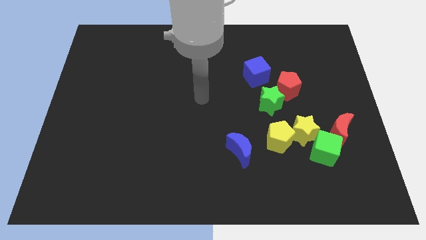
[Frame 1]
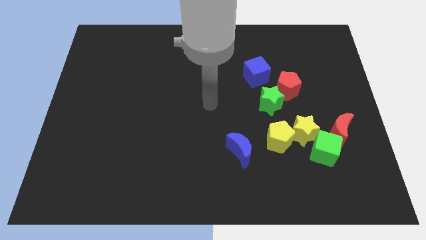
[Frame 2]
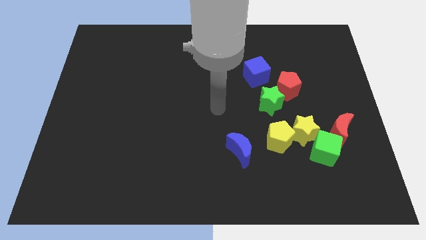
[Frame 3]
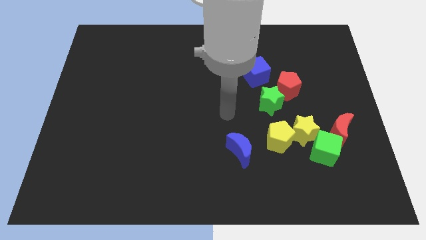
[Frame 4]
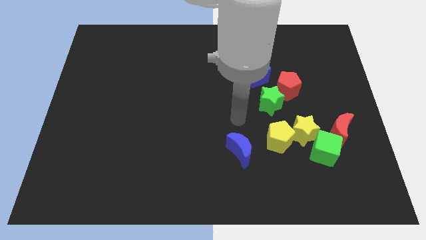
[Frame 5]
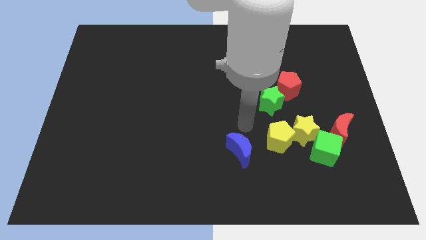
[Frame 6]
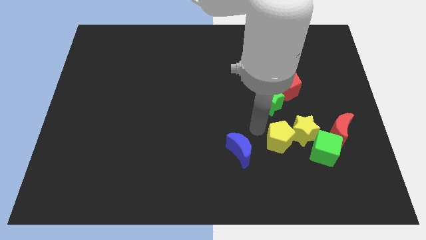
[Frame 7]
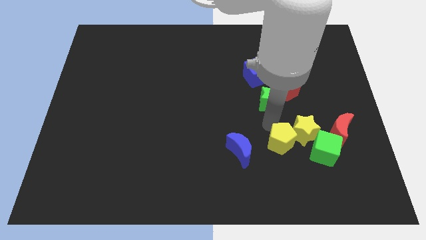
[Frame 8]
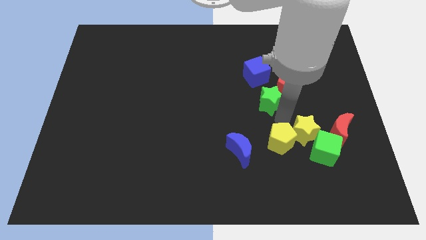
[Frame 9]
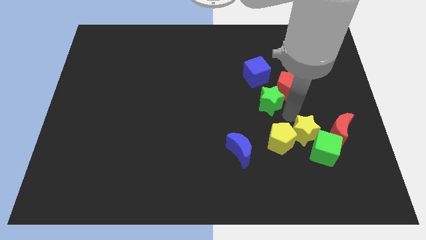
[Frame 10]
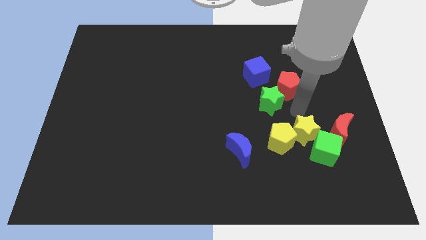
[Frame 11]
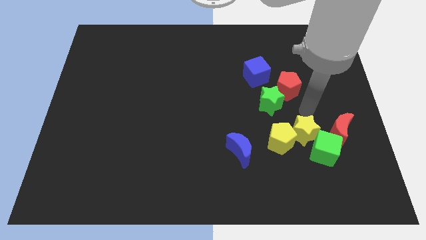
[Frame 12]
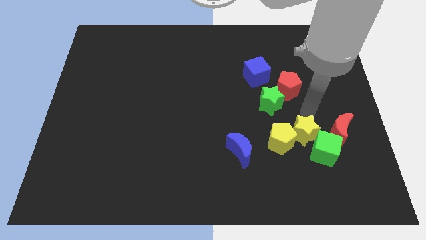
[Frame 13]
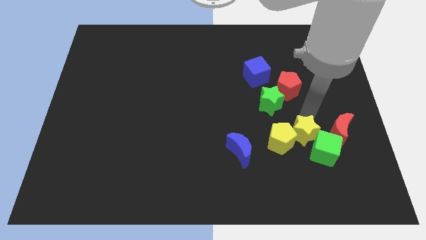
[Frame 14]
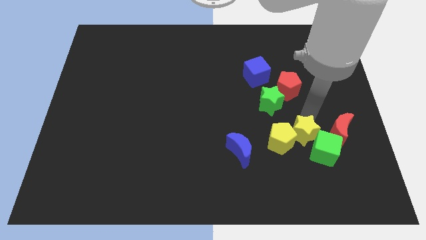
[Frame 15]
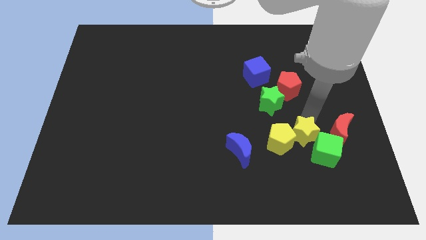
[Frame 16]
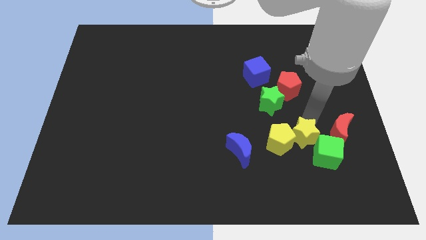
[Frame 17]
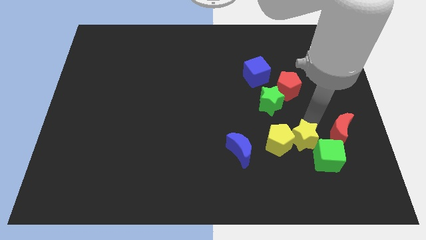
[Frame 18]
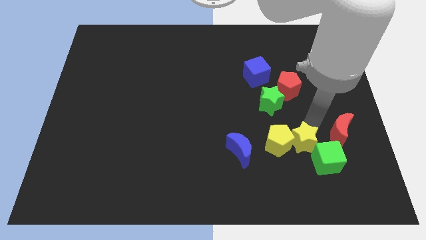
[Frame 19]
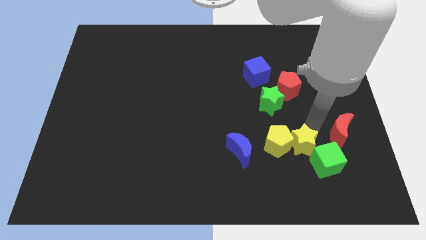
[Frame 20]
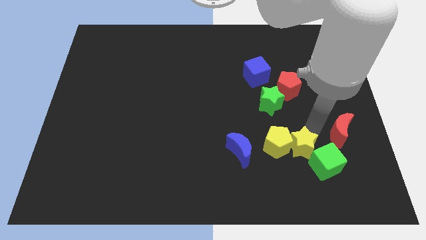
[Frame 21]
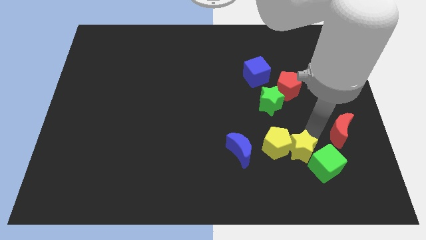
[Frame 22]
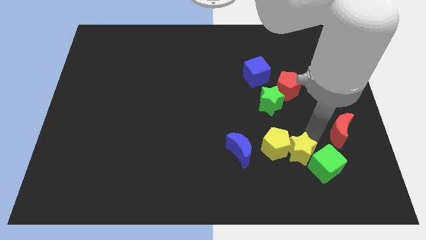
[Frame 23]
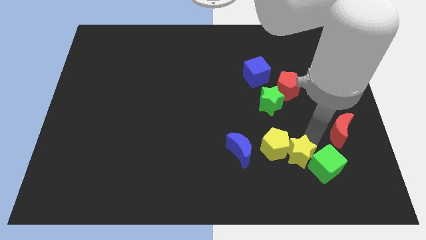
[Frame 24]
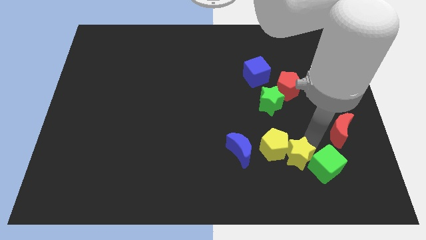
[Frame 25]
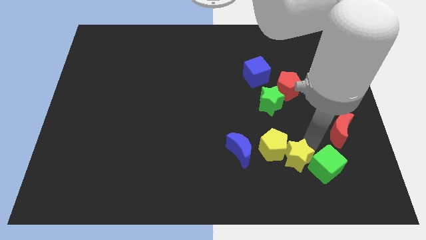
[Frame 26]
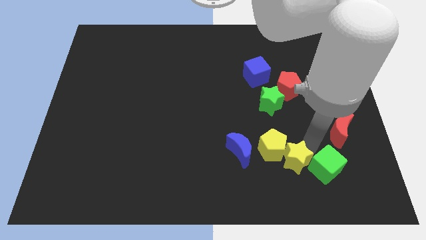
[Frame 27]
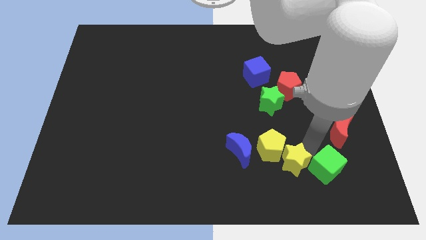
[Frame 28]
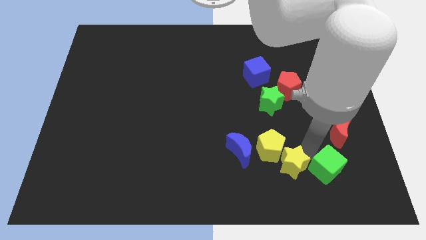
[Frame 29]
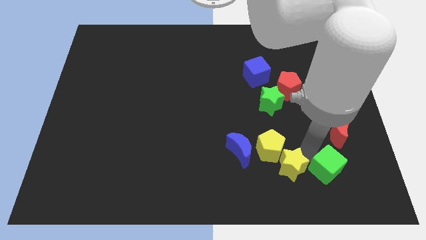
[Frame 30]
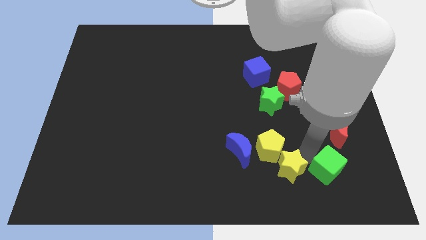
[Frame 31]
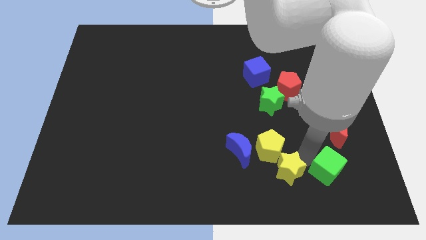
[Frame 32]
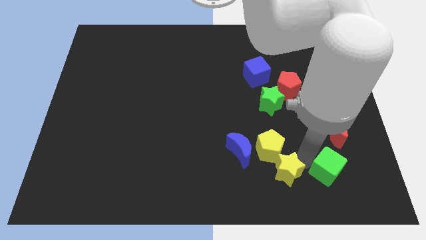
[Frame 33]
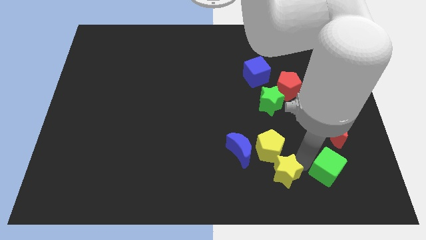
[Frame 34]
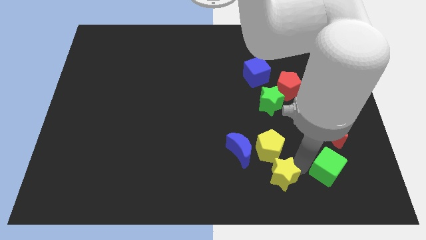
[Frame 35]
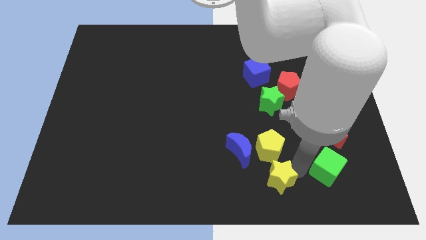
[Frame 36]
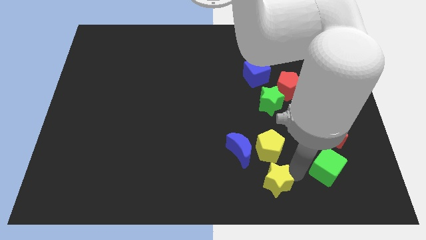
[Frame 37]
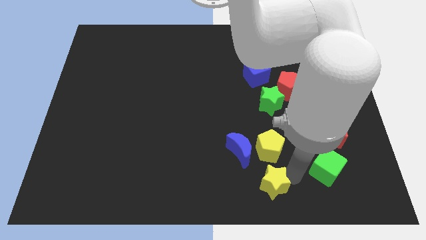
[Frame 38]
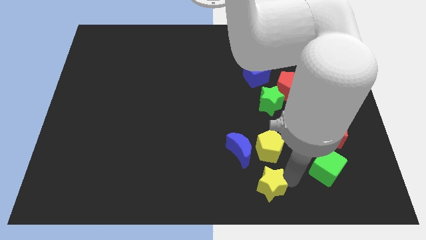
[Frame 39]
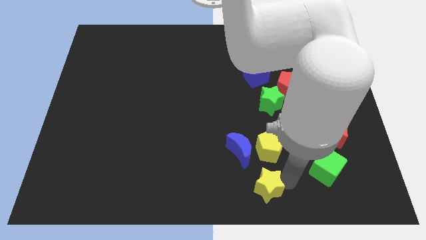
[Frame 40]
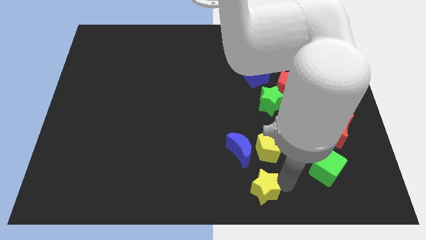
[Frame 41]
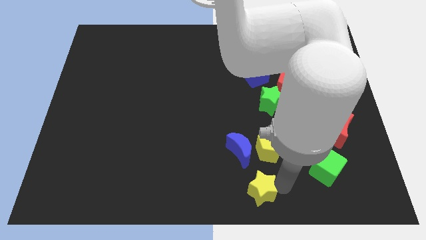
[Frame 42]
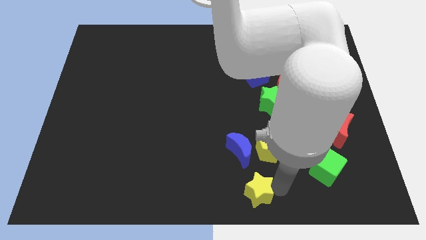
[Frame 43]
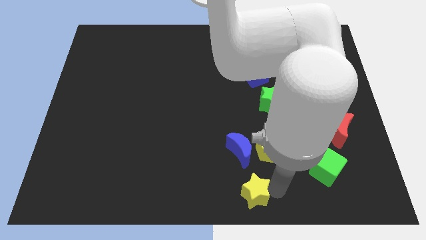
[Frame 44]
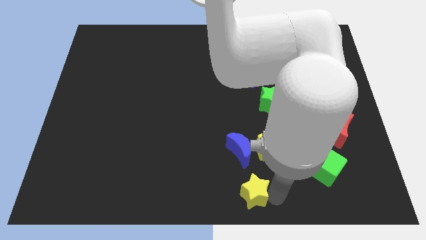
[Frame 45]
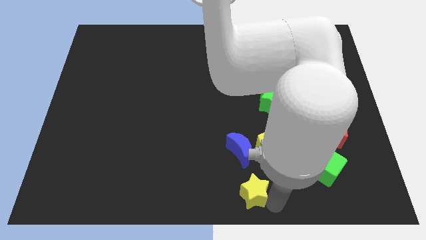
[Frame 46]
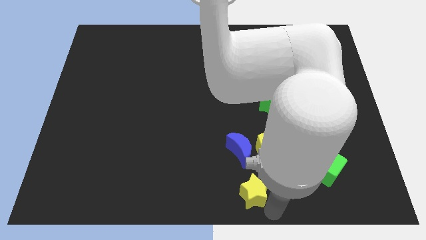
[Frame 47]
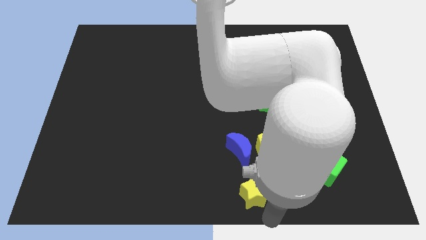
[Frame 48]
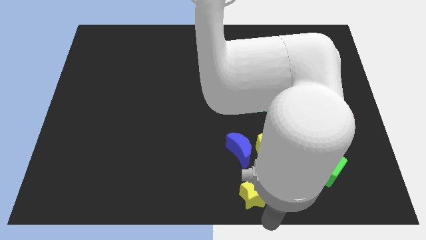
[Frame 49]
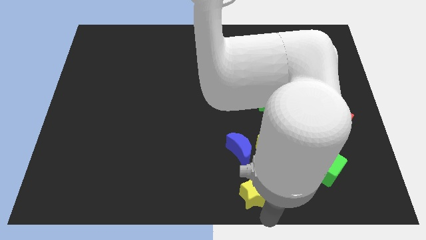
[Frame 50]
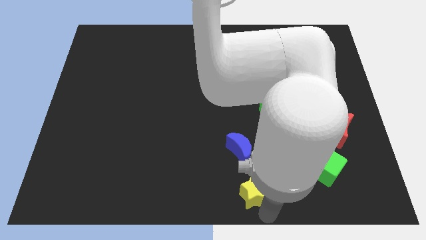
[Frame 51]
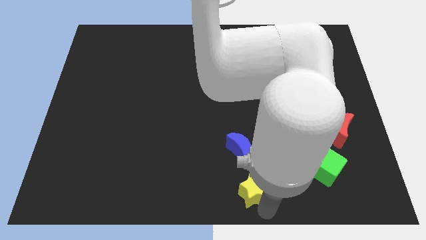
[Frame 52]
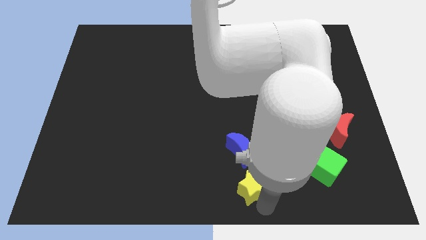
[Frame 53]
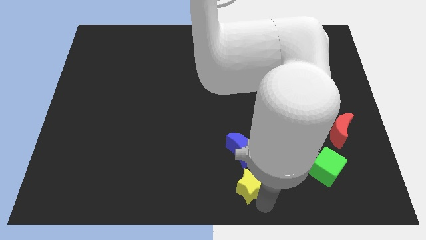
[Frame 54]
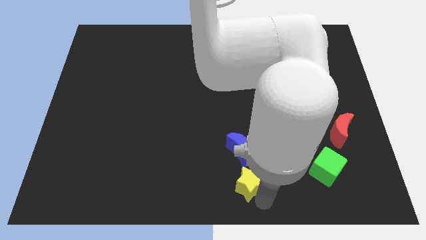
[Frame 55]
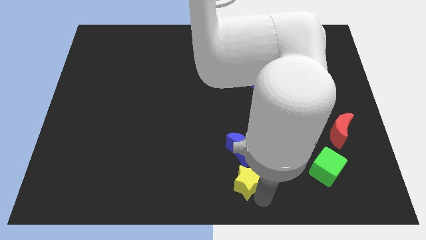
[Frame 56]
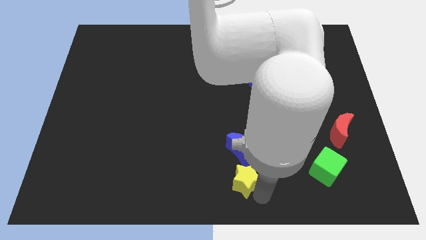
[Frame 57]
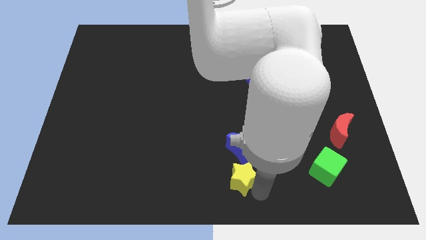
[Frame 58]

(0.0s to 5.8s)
move the yellow star diagonally down and to the left of the blue moon

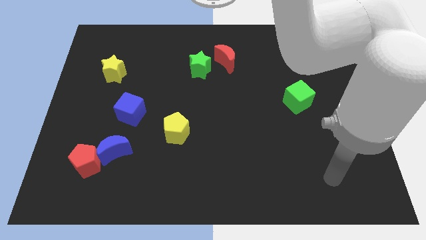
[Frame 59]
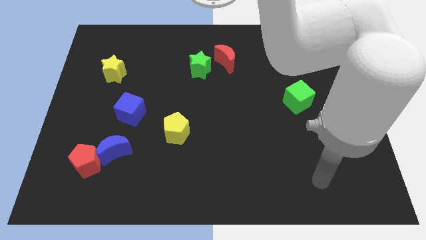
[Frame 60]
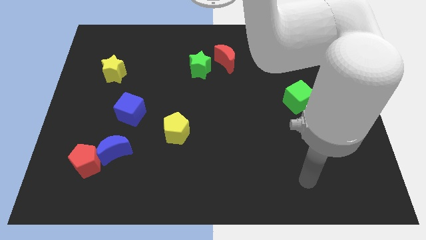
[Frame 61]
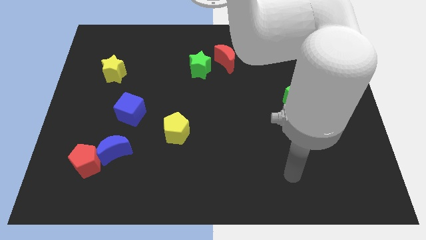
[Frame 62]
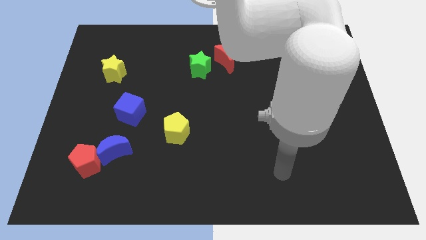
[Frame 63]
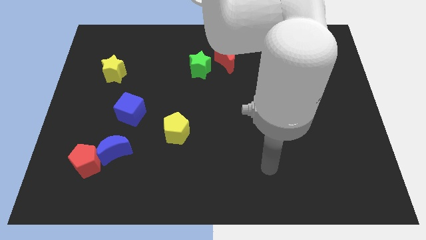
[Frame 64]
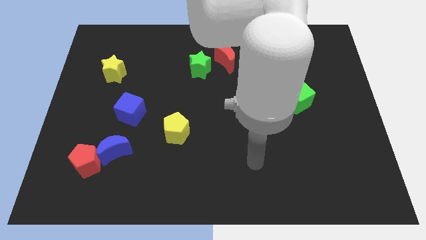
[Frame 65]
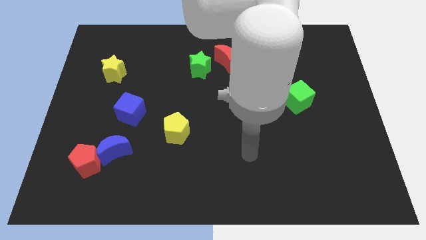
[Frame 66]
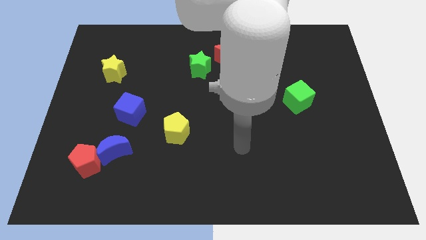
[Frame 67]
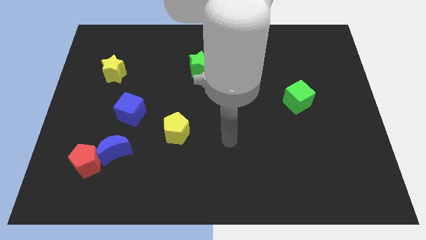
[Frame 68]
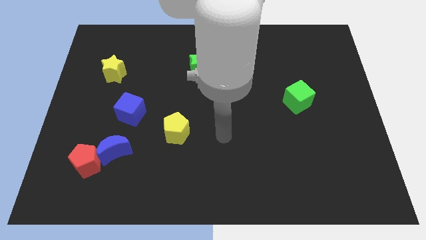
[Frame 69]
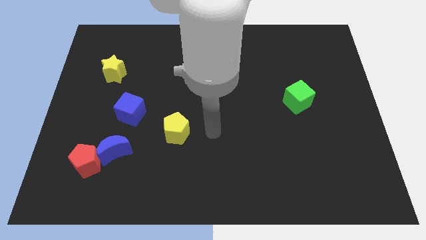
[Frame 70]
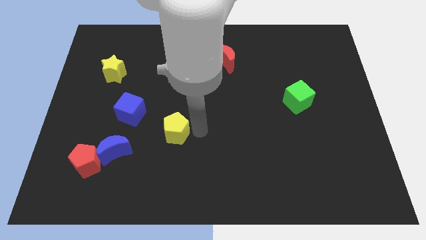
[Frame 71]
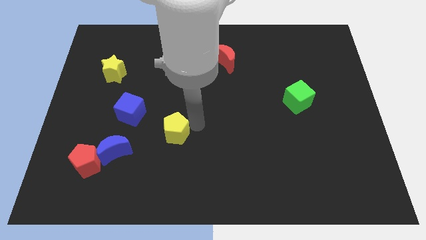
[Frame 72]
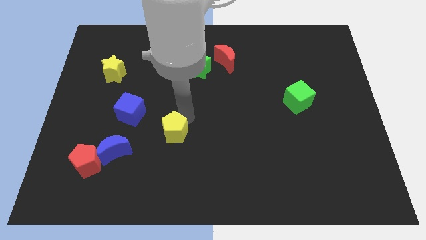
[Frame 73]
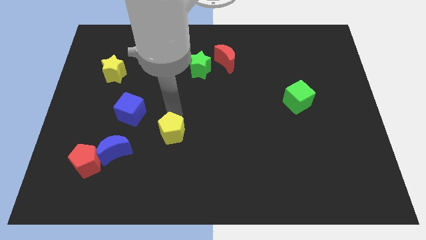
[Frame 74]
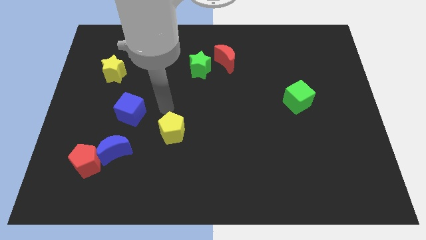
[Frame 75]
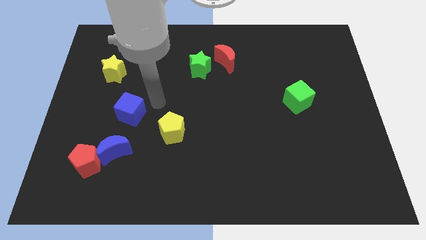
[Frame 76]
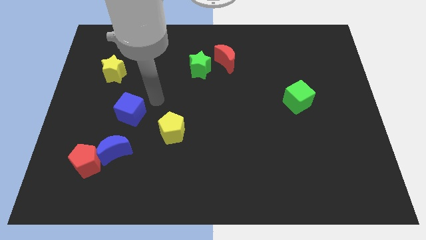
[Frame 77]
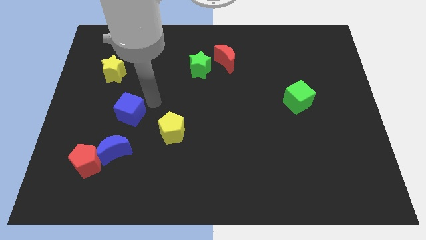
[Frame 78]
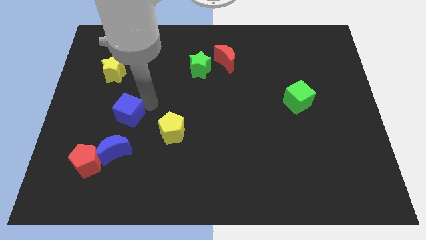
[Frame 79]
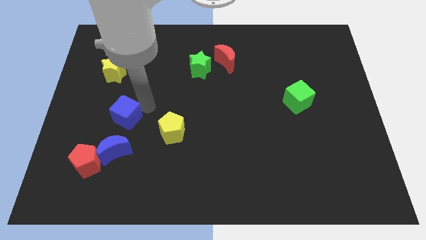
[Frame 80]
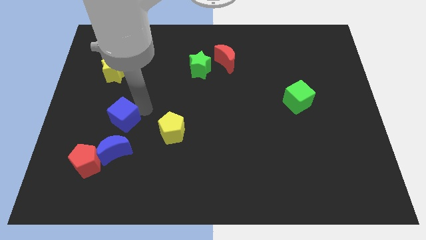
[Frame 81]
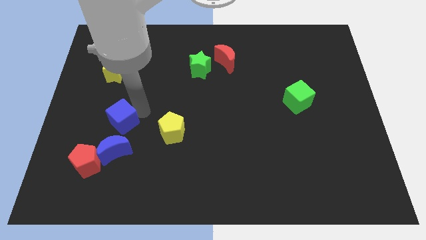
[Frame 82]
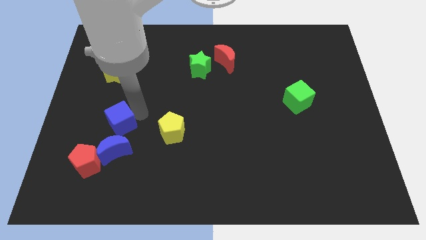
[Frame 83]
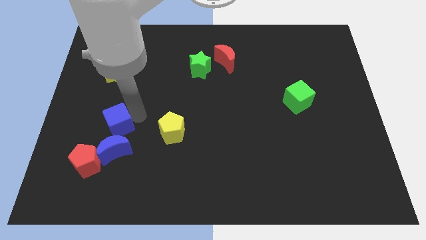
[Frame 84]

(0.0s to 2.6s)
put the blue cube to the top left of the blue moon
